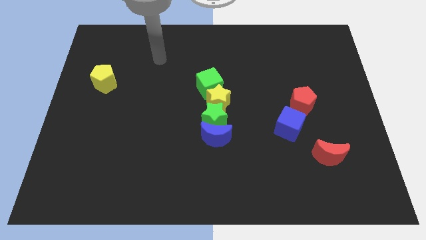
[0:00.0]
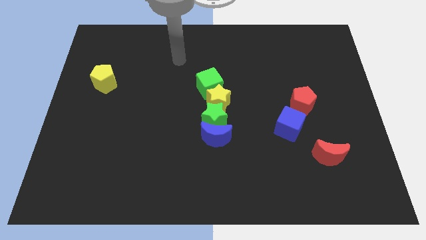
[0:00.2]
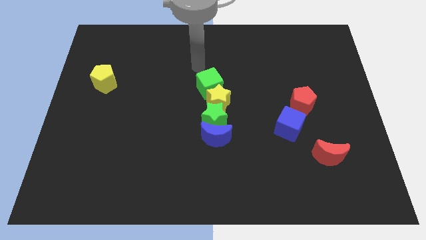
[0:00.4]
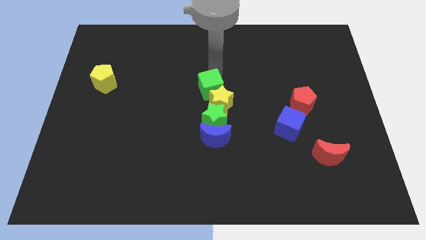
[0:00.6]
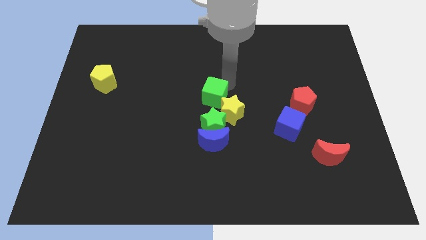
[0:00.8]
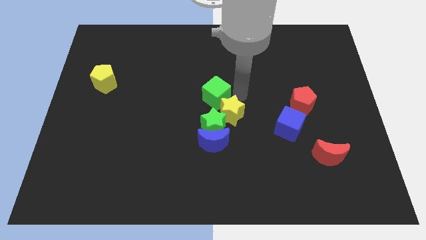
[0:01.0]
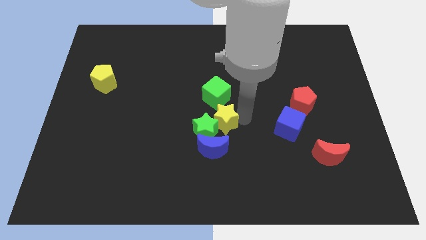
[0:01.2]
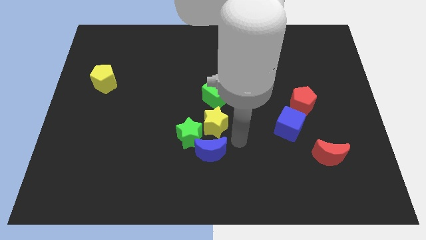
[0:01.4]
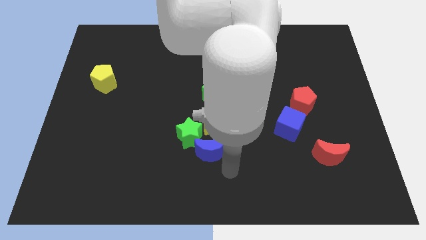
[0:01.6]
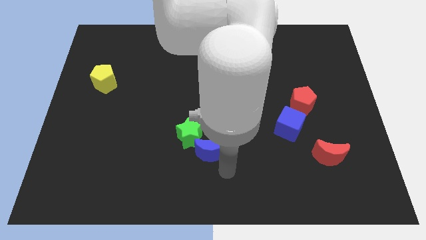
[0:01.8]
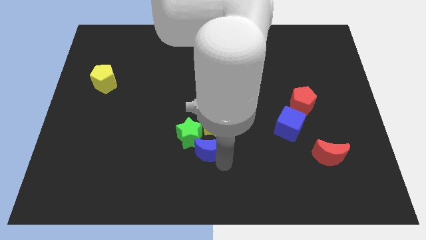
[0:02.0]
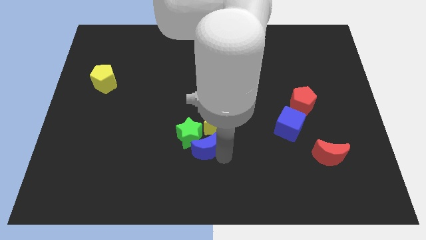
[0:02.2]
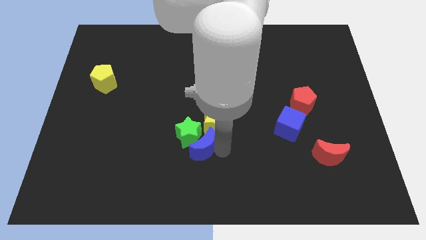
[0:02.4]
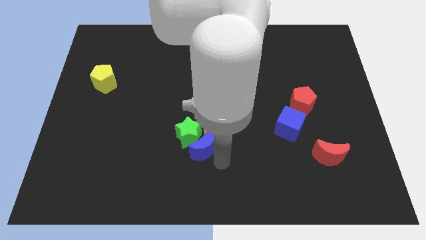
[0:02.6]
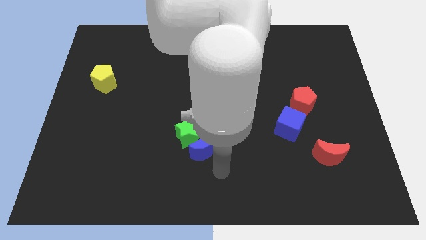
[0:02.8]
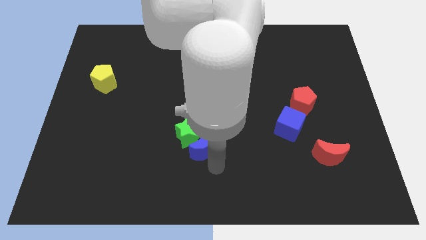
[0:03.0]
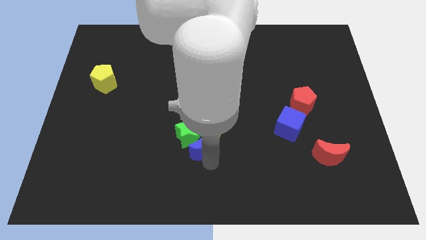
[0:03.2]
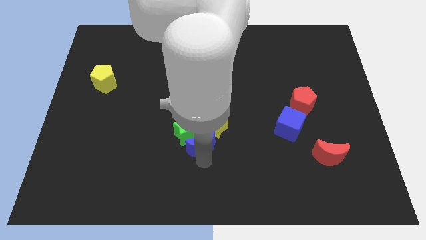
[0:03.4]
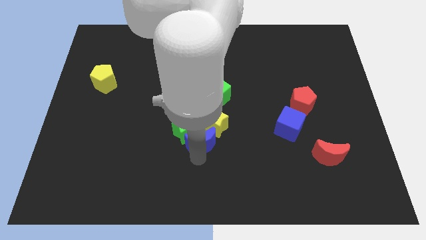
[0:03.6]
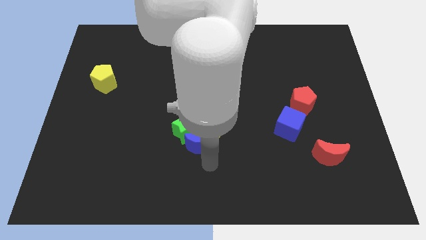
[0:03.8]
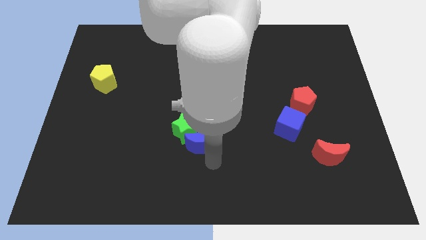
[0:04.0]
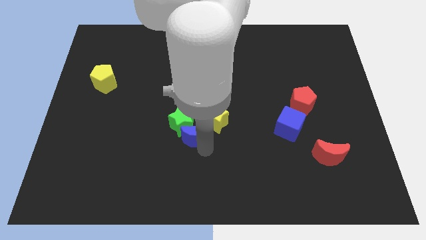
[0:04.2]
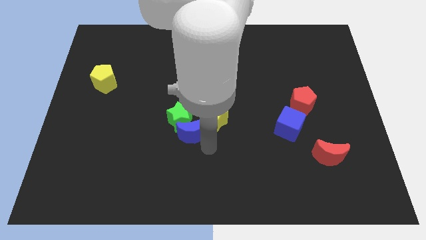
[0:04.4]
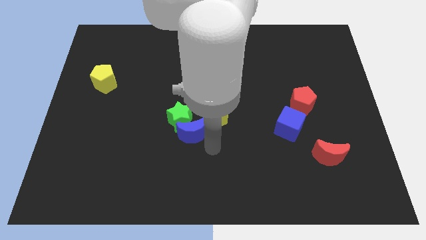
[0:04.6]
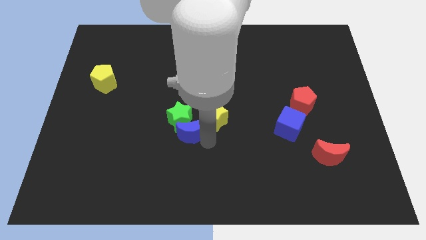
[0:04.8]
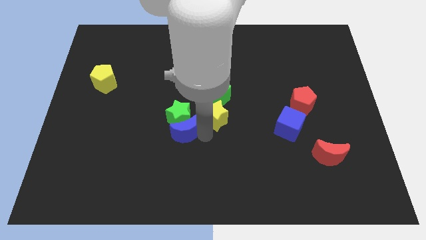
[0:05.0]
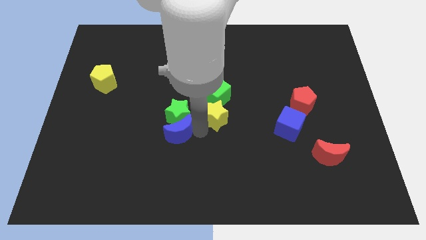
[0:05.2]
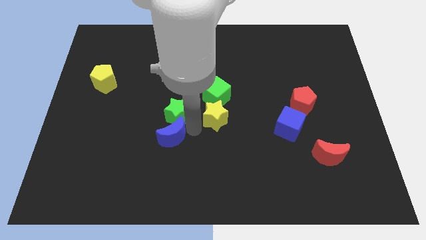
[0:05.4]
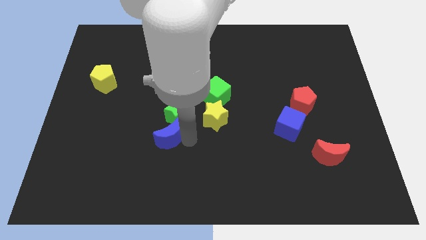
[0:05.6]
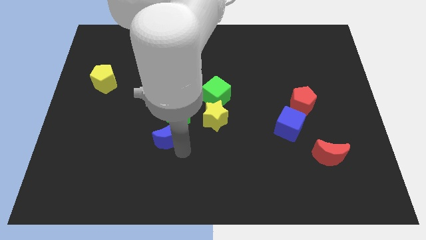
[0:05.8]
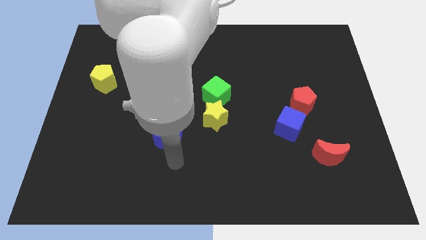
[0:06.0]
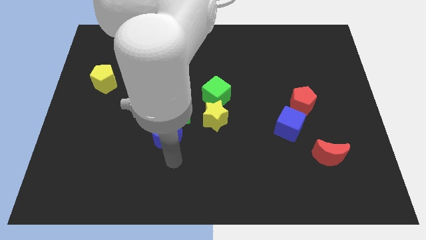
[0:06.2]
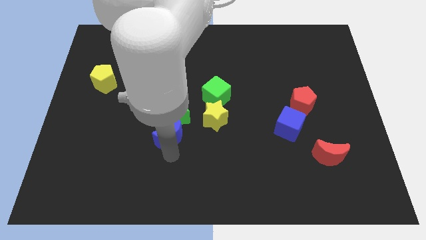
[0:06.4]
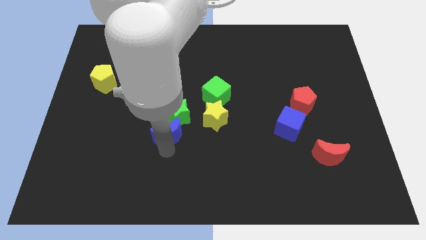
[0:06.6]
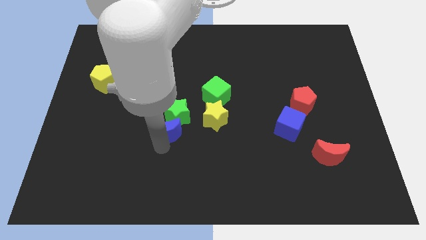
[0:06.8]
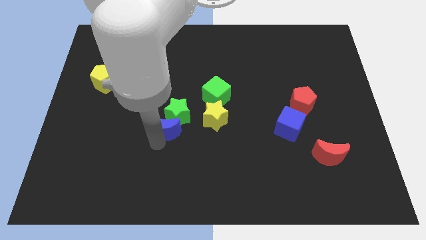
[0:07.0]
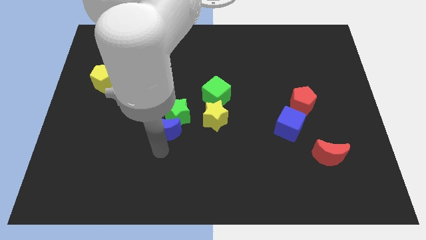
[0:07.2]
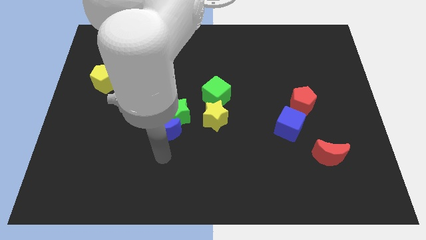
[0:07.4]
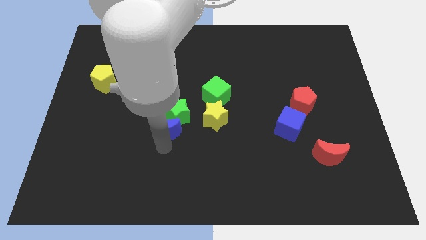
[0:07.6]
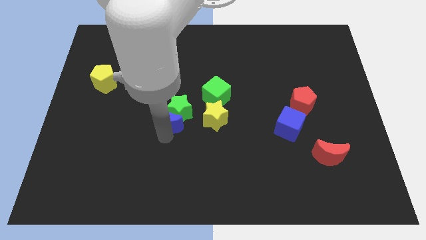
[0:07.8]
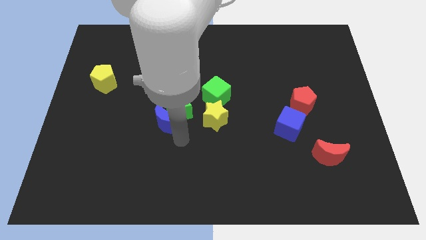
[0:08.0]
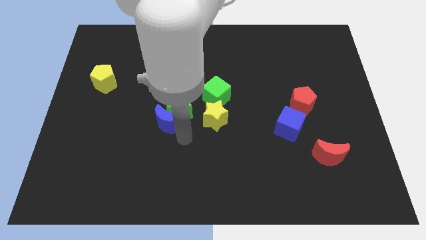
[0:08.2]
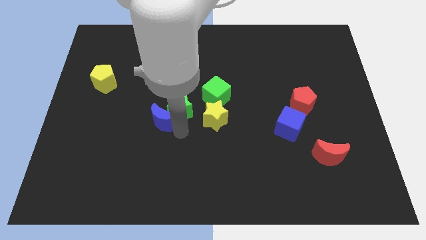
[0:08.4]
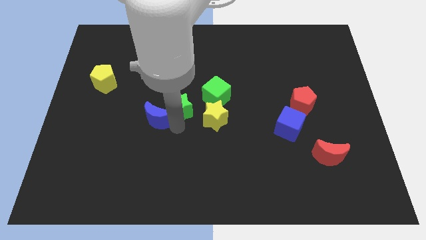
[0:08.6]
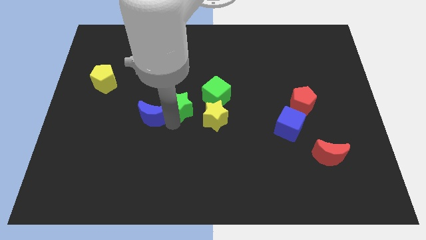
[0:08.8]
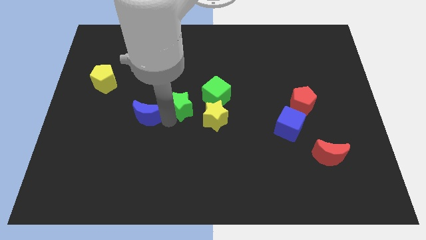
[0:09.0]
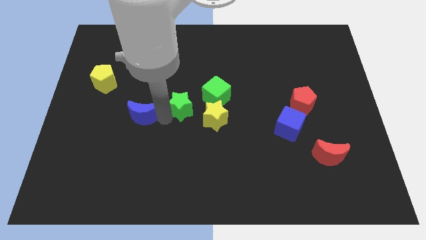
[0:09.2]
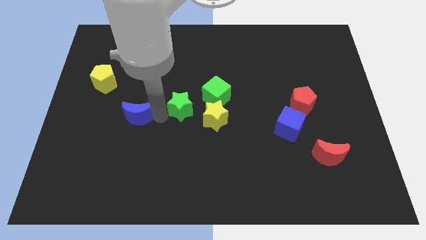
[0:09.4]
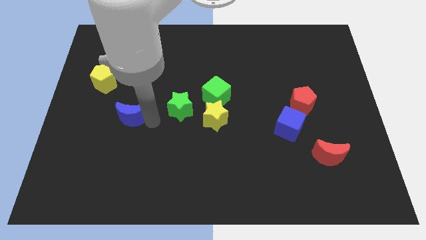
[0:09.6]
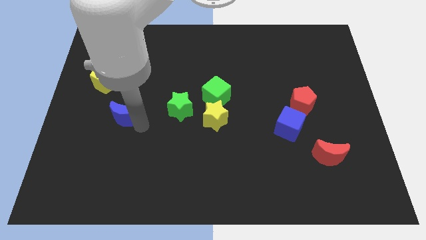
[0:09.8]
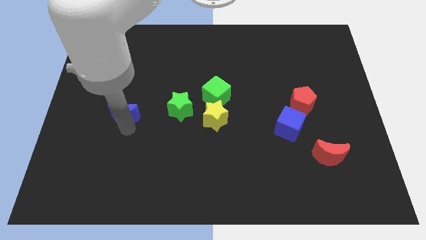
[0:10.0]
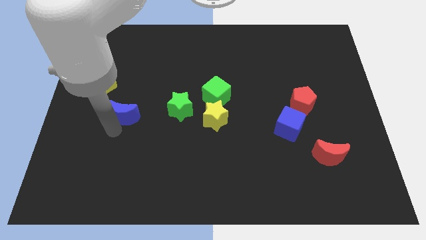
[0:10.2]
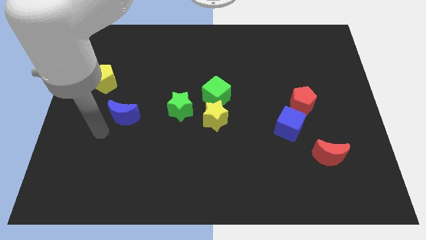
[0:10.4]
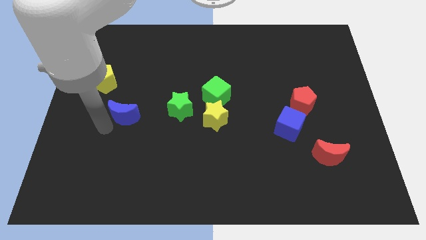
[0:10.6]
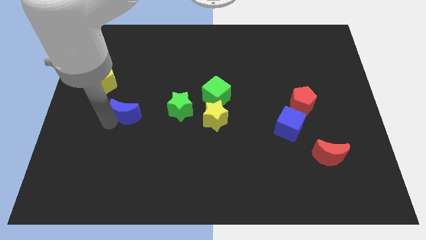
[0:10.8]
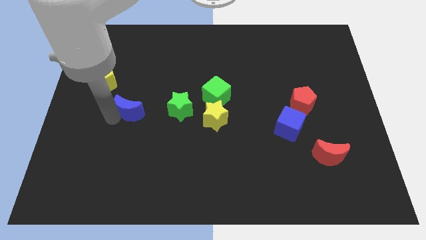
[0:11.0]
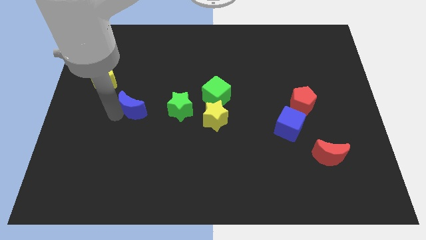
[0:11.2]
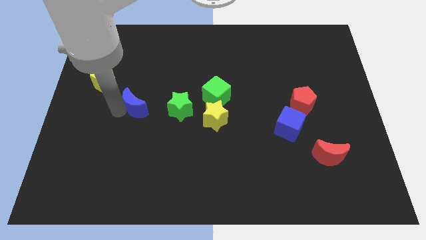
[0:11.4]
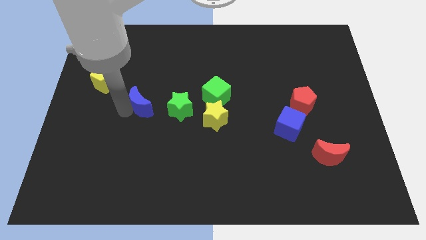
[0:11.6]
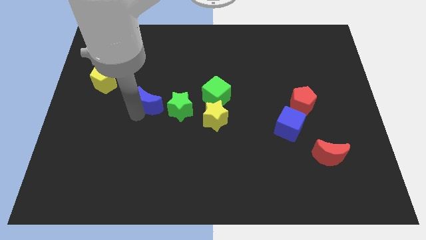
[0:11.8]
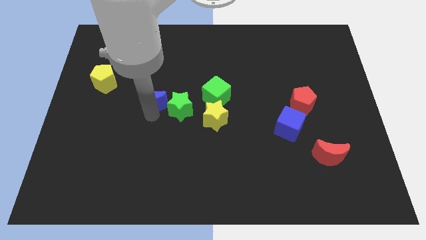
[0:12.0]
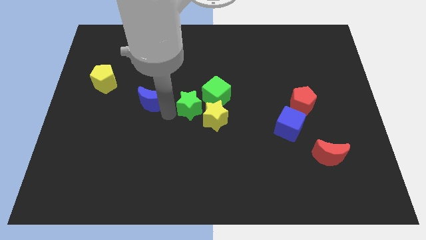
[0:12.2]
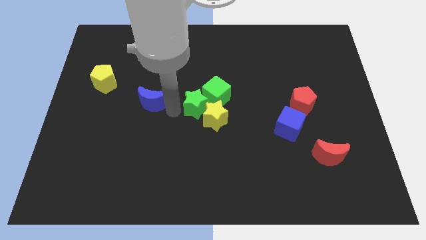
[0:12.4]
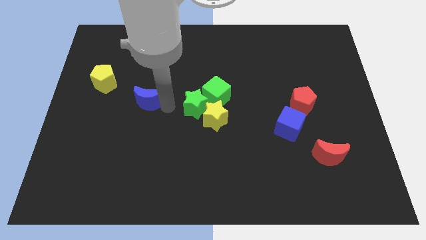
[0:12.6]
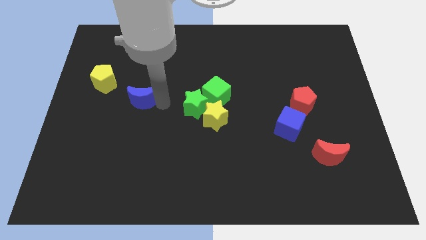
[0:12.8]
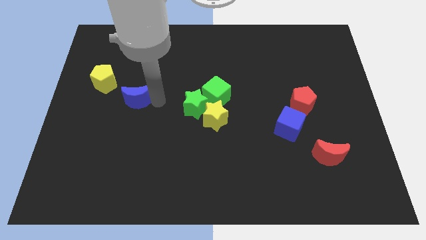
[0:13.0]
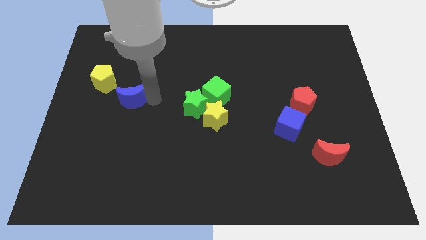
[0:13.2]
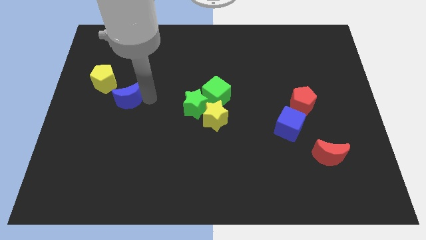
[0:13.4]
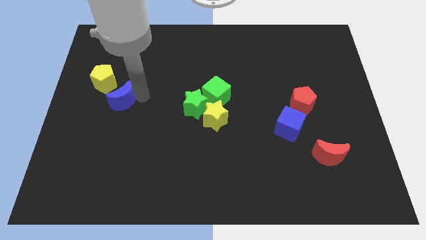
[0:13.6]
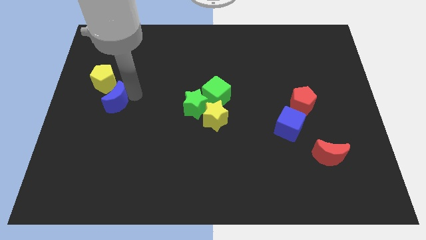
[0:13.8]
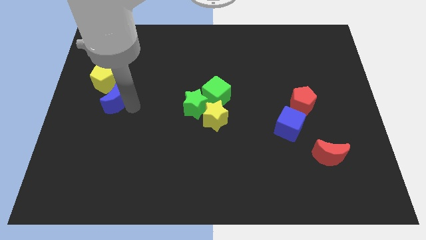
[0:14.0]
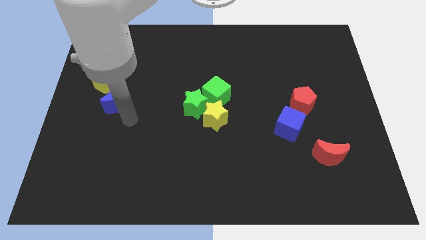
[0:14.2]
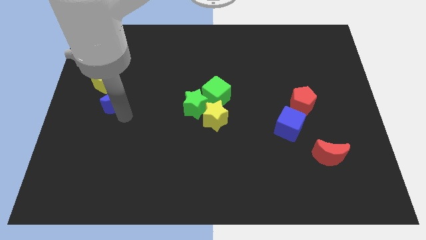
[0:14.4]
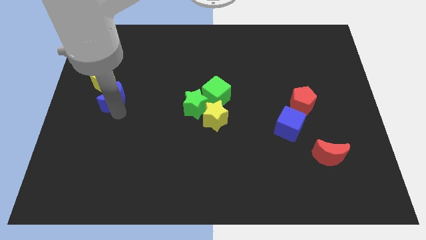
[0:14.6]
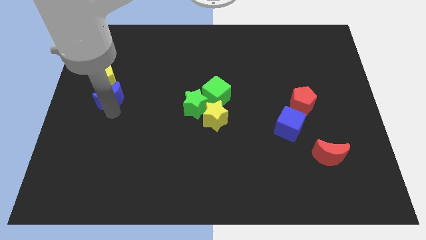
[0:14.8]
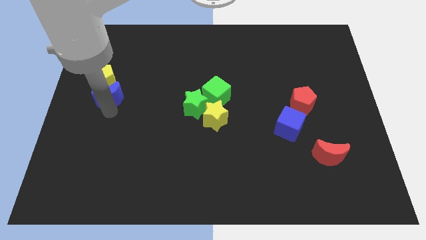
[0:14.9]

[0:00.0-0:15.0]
slide the blue moon towards the yellow pentagon
